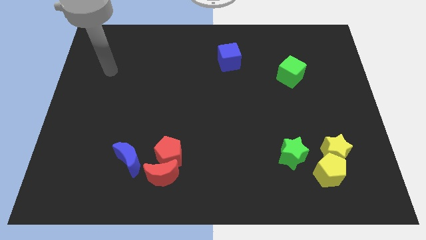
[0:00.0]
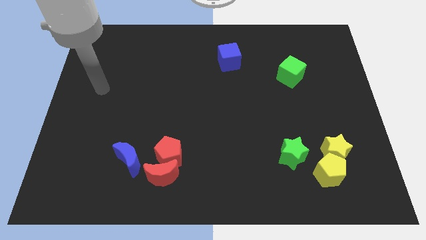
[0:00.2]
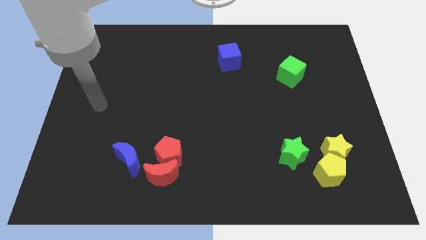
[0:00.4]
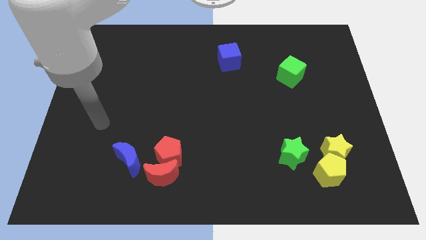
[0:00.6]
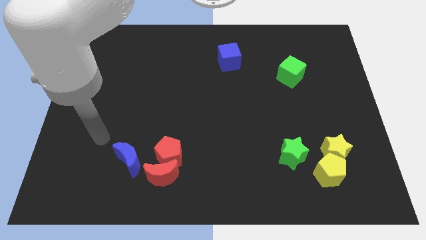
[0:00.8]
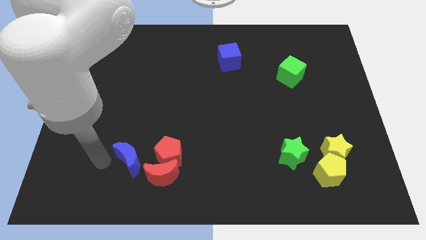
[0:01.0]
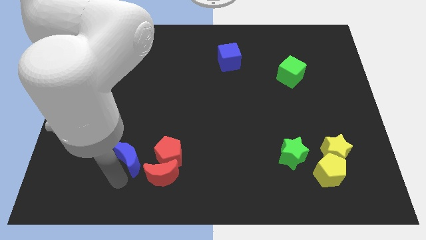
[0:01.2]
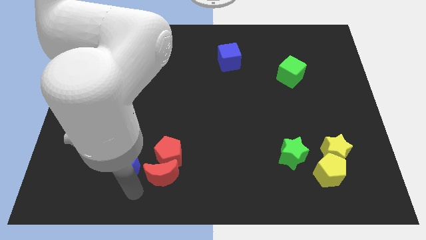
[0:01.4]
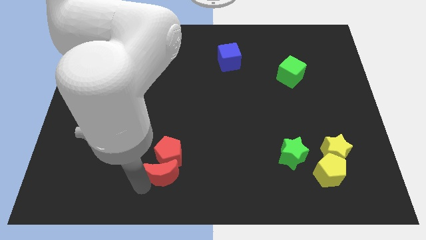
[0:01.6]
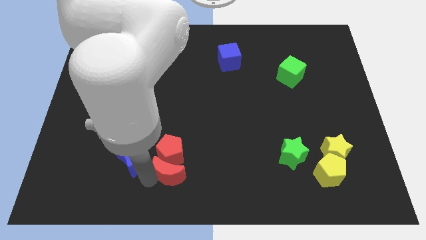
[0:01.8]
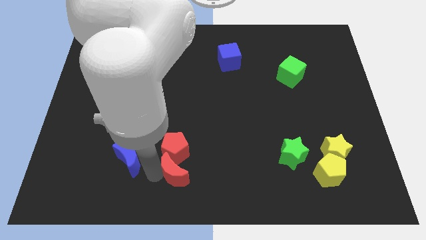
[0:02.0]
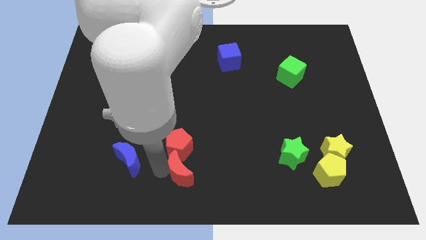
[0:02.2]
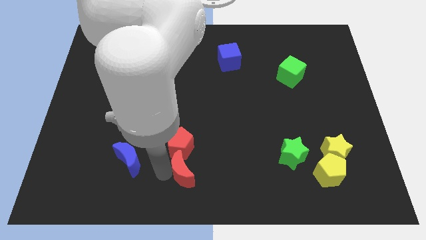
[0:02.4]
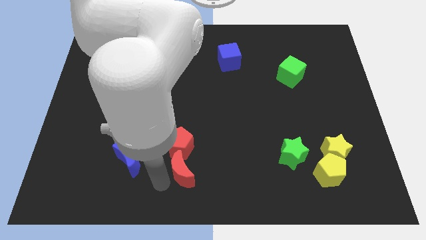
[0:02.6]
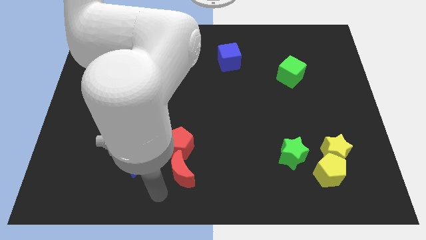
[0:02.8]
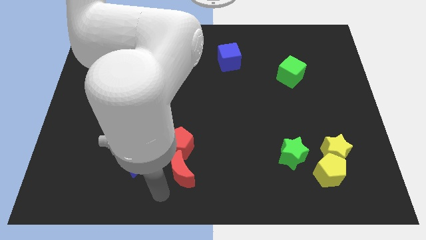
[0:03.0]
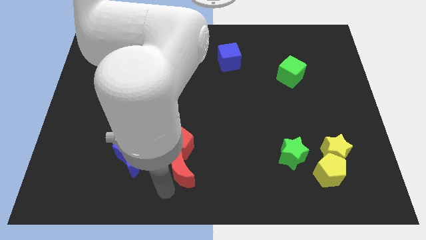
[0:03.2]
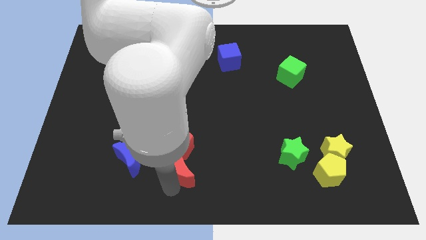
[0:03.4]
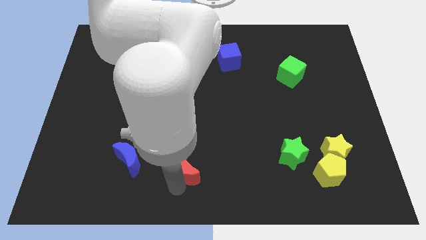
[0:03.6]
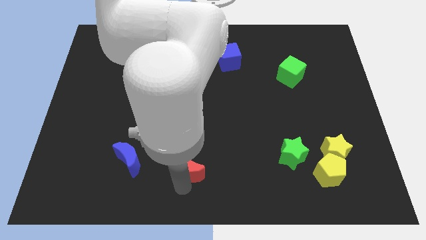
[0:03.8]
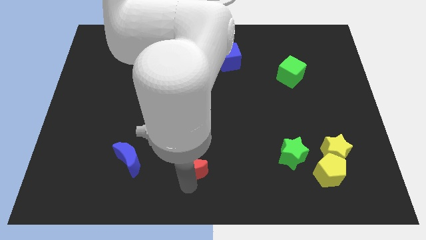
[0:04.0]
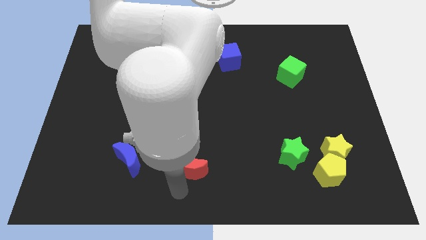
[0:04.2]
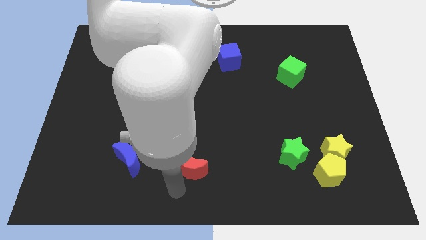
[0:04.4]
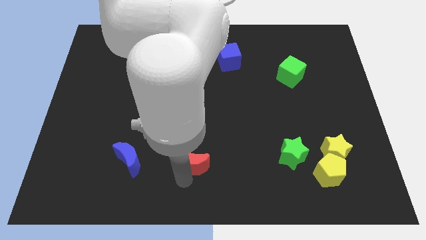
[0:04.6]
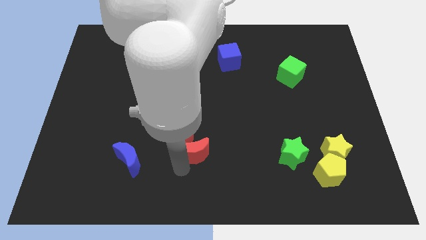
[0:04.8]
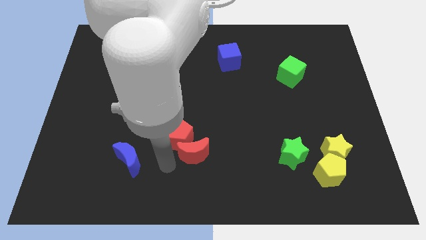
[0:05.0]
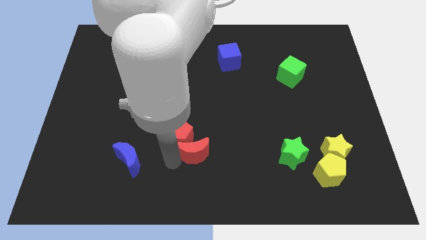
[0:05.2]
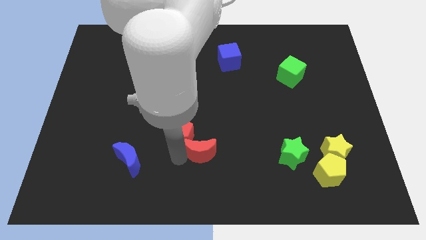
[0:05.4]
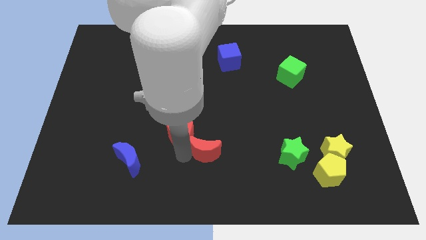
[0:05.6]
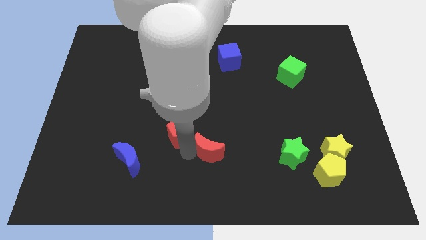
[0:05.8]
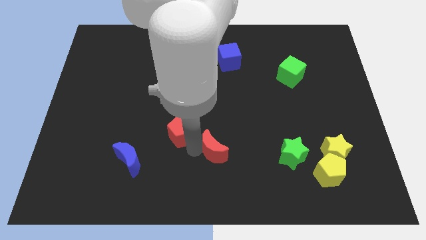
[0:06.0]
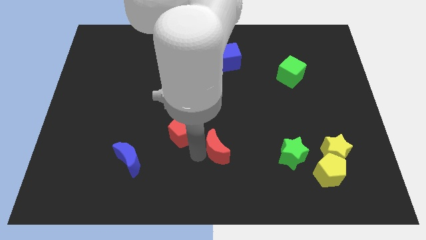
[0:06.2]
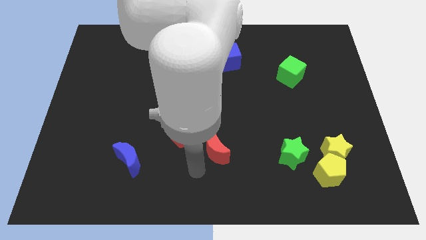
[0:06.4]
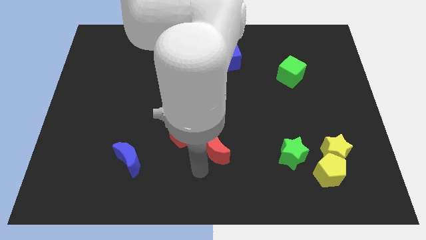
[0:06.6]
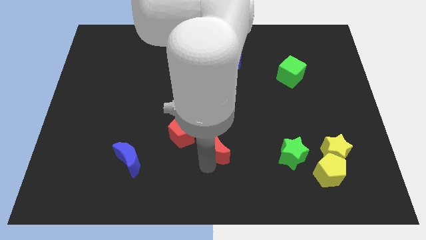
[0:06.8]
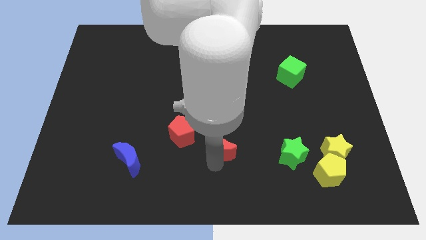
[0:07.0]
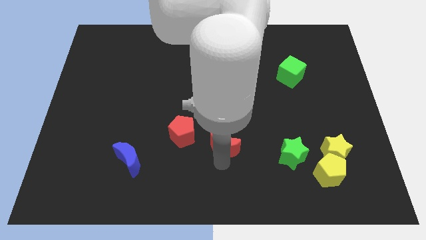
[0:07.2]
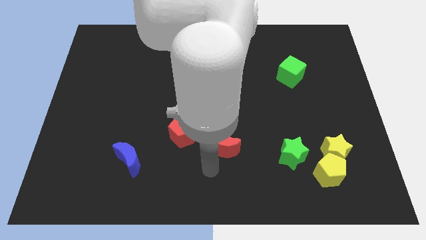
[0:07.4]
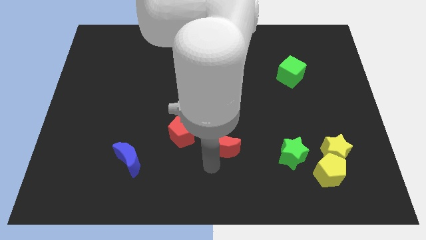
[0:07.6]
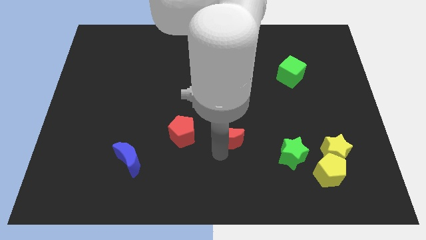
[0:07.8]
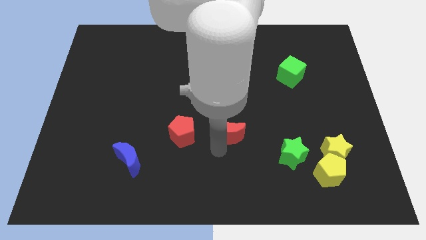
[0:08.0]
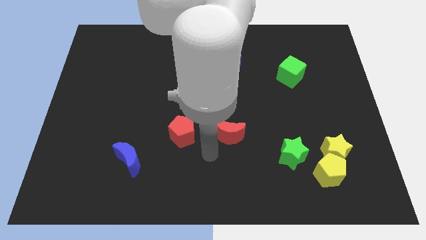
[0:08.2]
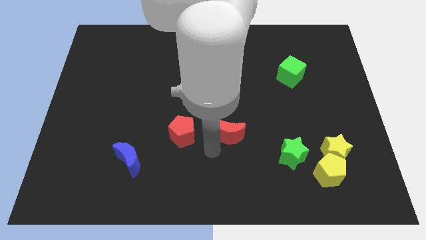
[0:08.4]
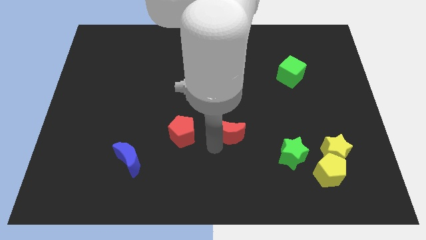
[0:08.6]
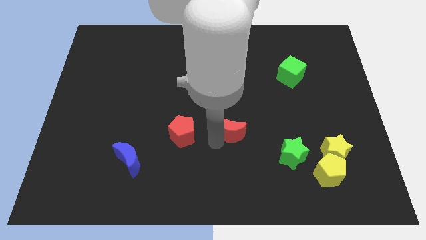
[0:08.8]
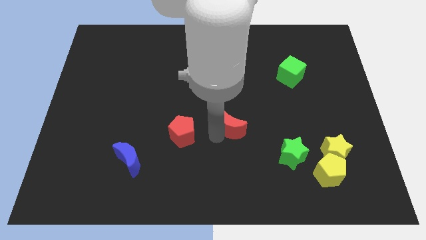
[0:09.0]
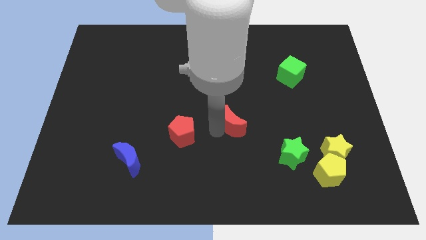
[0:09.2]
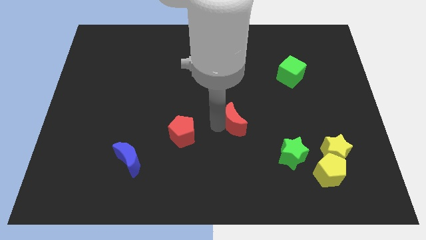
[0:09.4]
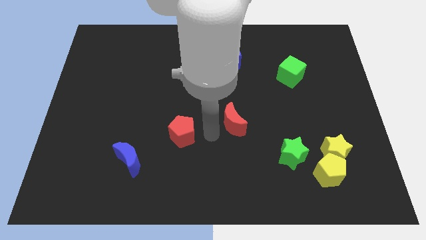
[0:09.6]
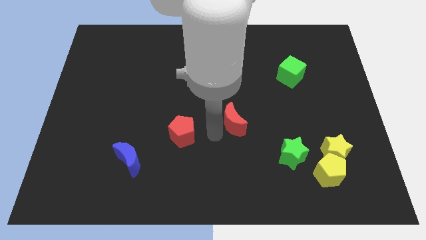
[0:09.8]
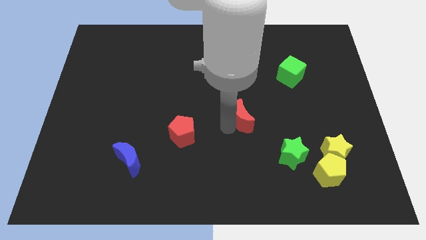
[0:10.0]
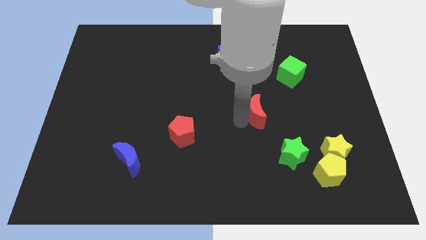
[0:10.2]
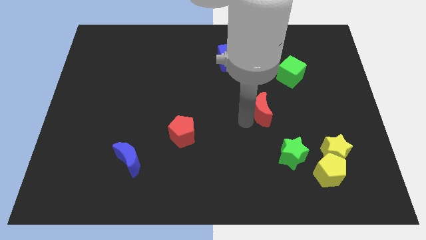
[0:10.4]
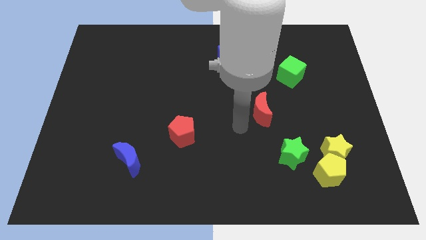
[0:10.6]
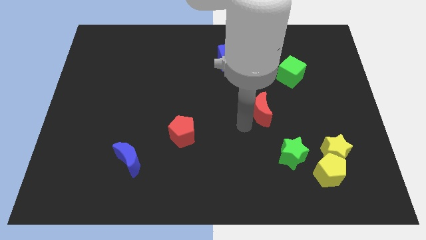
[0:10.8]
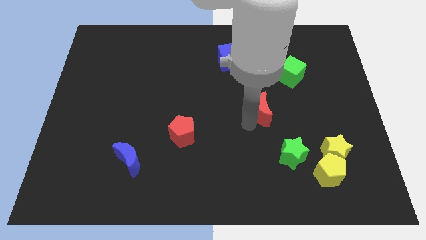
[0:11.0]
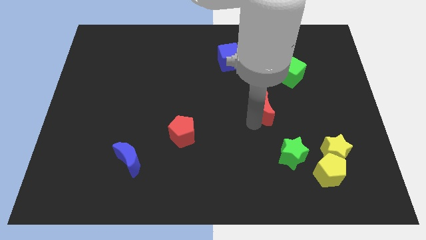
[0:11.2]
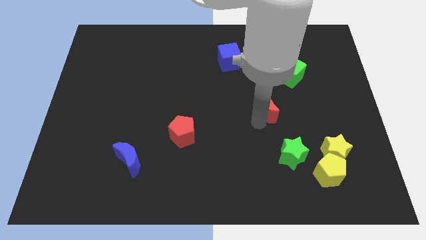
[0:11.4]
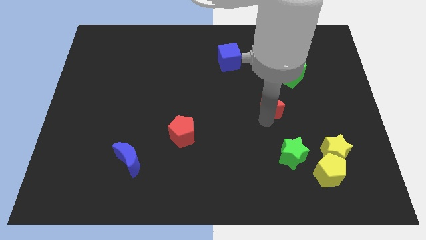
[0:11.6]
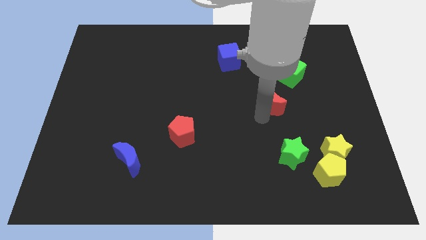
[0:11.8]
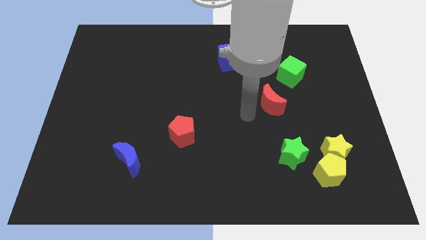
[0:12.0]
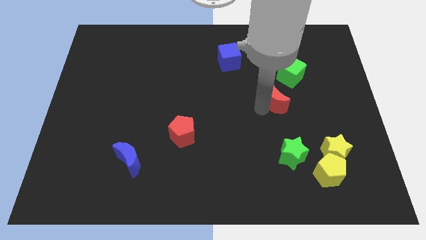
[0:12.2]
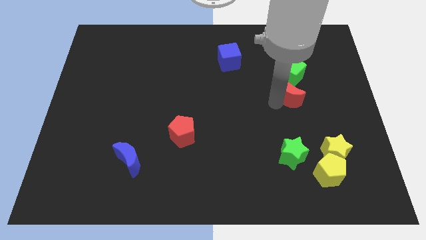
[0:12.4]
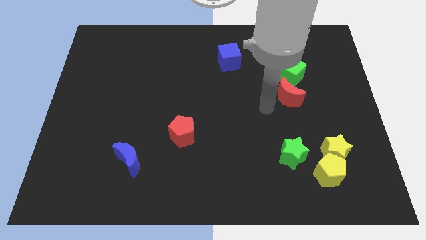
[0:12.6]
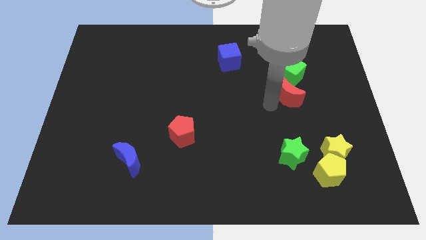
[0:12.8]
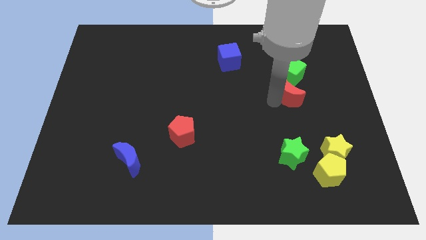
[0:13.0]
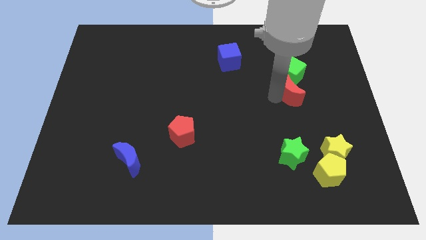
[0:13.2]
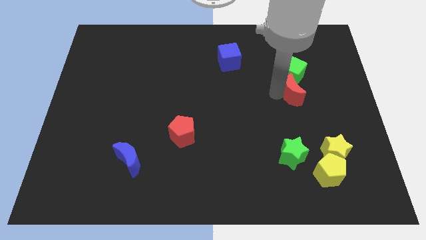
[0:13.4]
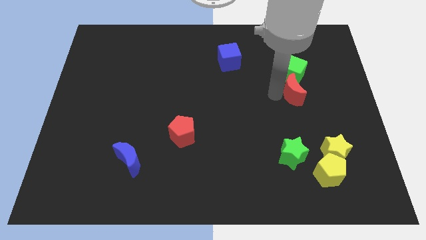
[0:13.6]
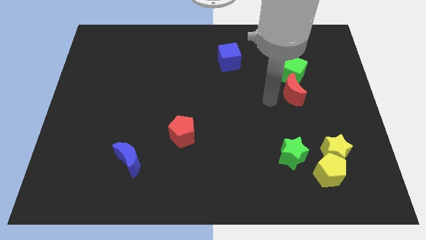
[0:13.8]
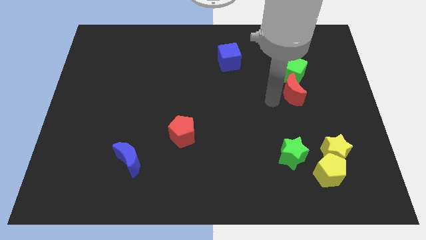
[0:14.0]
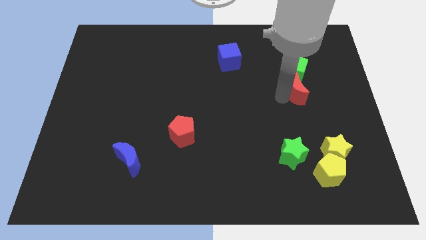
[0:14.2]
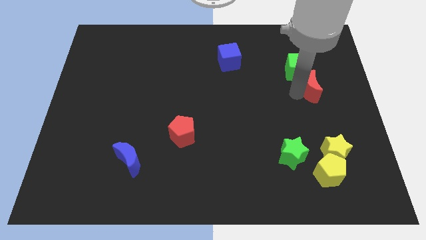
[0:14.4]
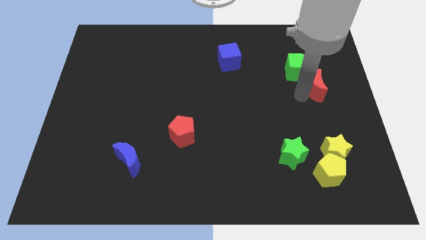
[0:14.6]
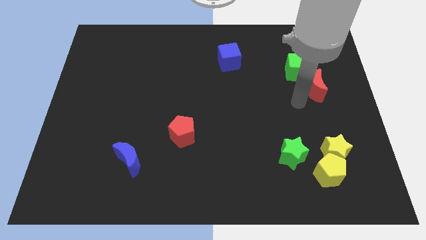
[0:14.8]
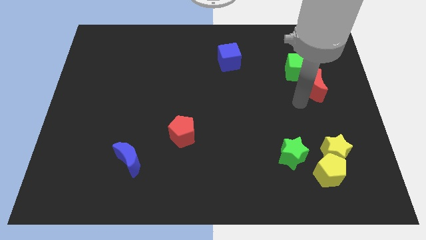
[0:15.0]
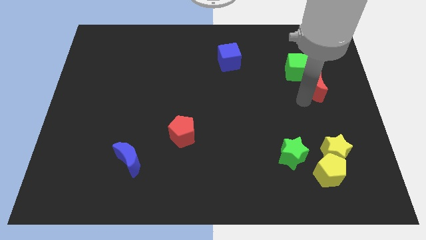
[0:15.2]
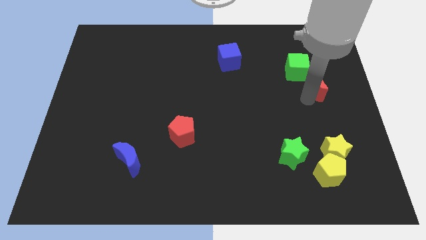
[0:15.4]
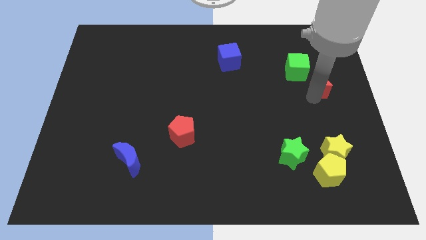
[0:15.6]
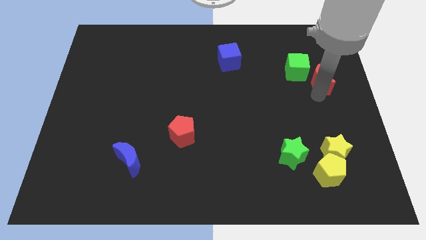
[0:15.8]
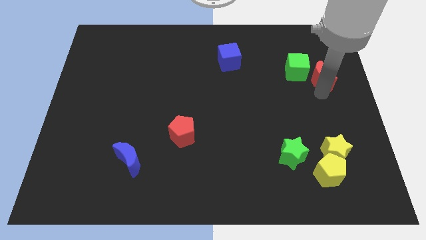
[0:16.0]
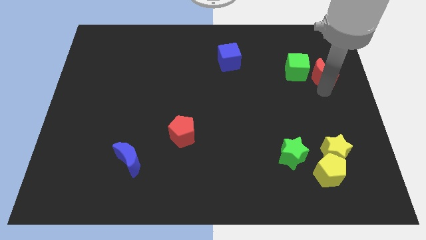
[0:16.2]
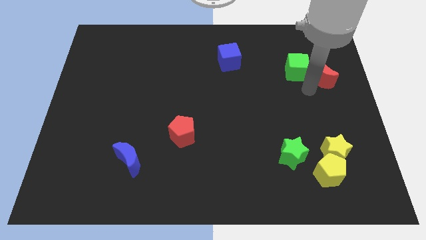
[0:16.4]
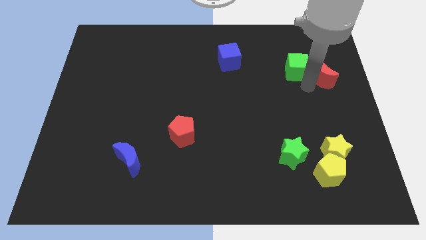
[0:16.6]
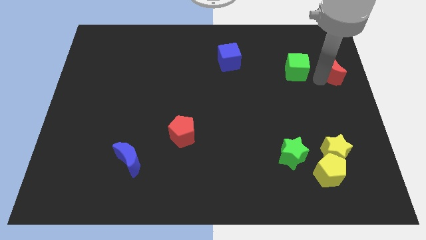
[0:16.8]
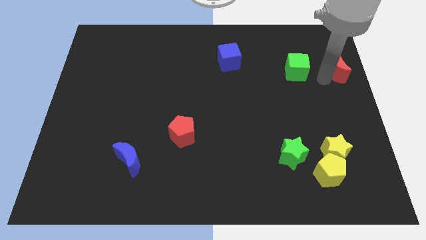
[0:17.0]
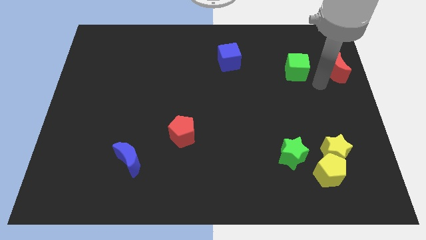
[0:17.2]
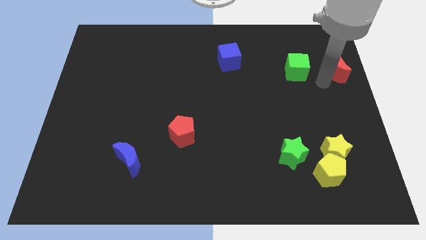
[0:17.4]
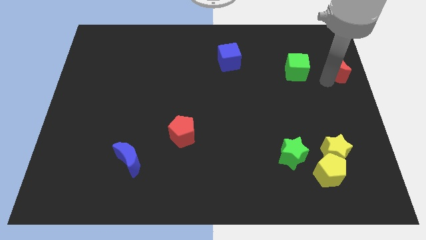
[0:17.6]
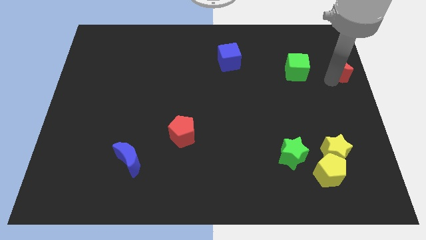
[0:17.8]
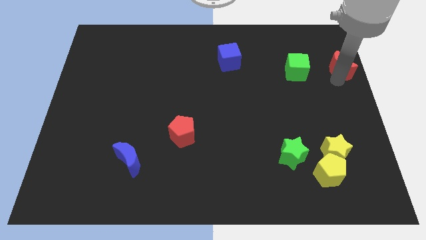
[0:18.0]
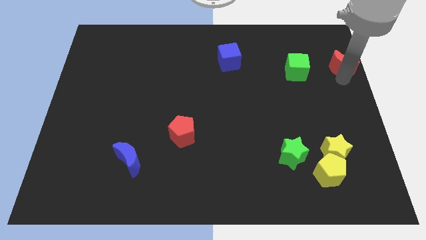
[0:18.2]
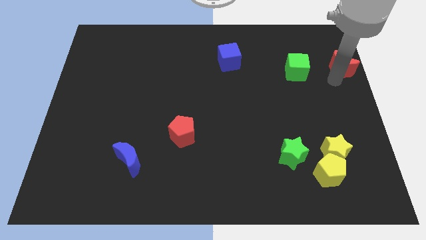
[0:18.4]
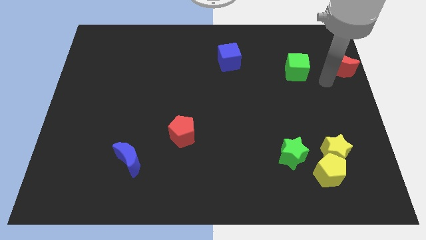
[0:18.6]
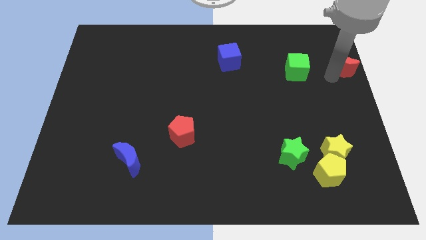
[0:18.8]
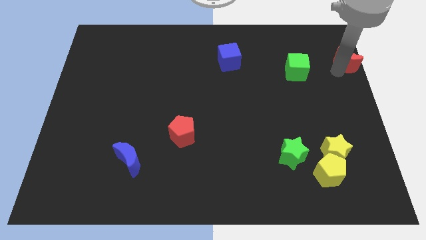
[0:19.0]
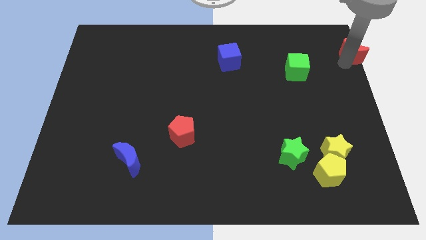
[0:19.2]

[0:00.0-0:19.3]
move the red moon to the top right of the board
